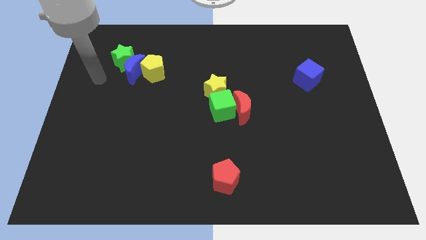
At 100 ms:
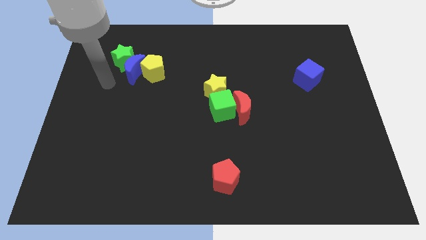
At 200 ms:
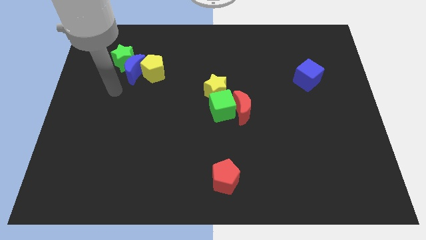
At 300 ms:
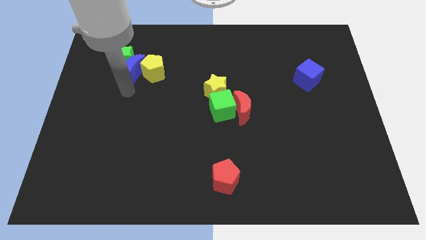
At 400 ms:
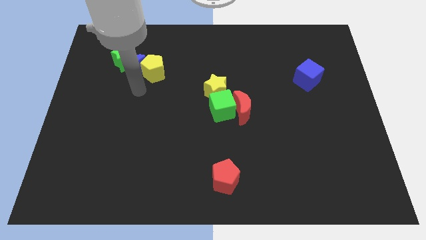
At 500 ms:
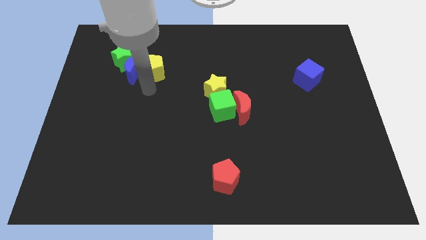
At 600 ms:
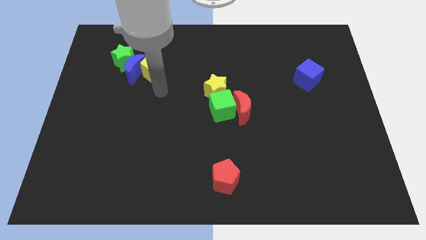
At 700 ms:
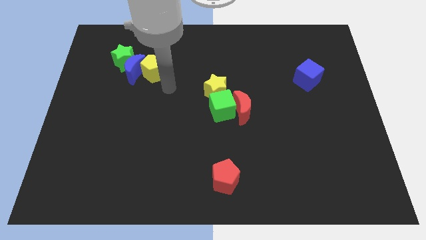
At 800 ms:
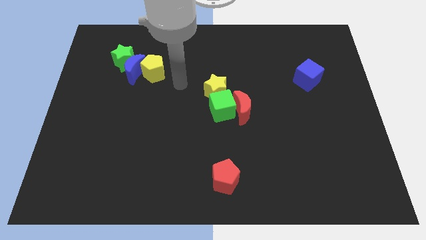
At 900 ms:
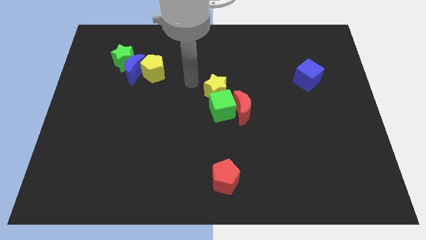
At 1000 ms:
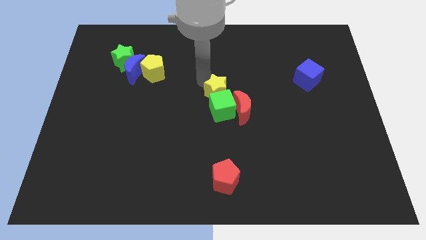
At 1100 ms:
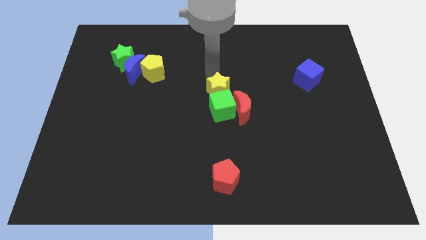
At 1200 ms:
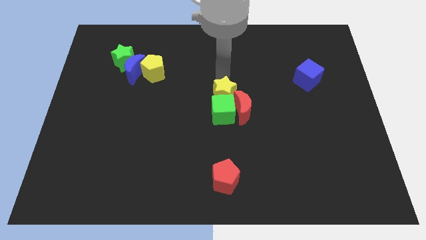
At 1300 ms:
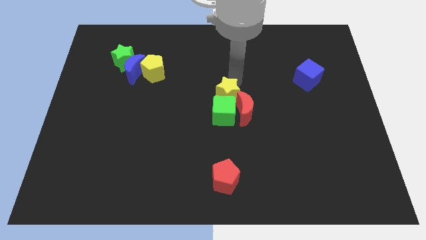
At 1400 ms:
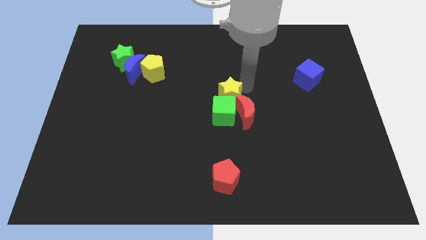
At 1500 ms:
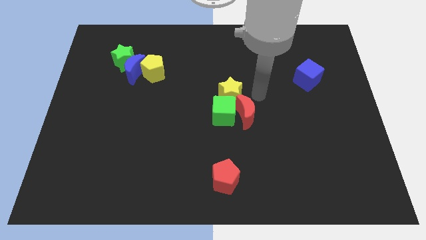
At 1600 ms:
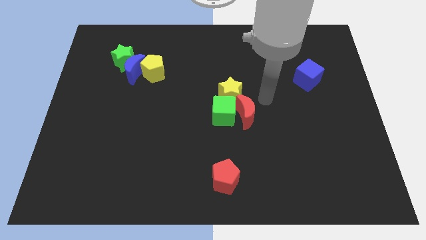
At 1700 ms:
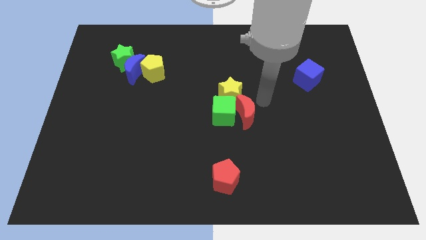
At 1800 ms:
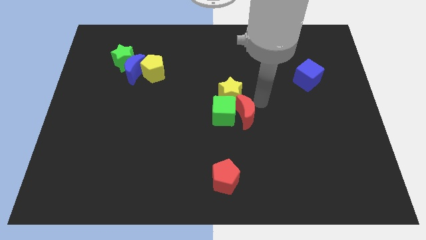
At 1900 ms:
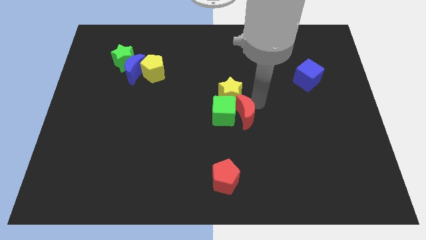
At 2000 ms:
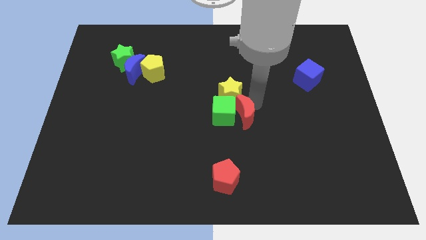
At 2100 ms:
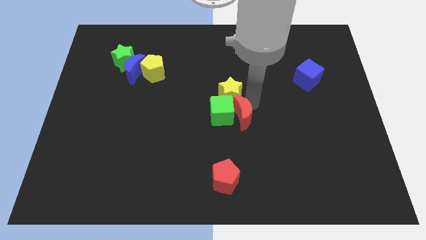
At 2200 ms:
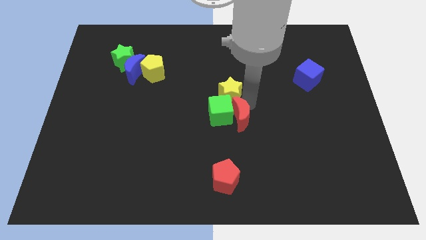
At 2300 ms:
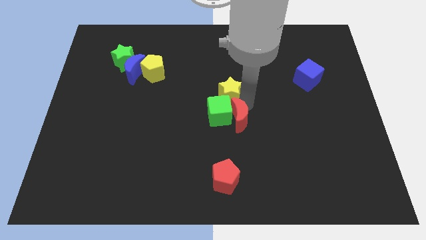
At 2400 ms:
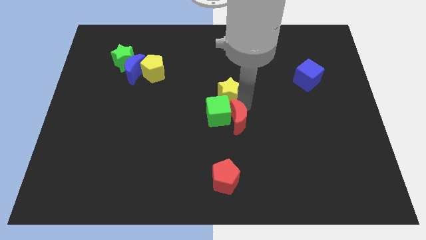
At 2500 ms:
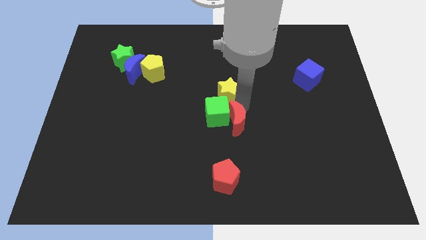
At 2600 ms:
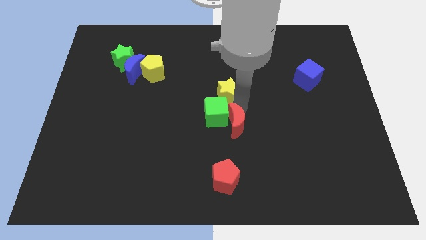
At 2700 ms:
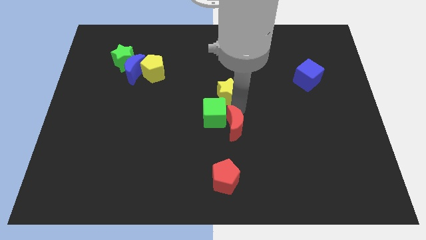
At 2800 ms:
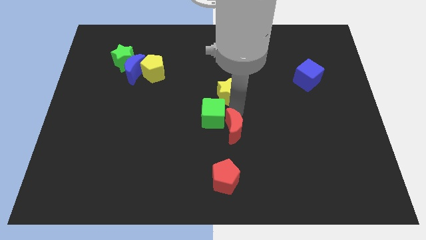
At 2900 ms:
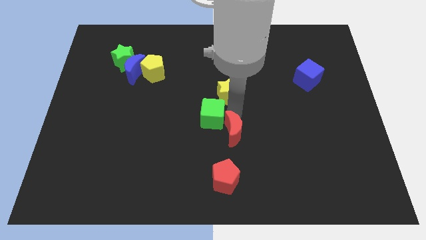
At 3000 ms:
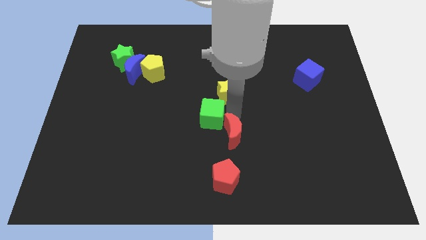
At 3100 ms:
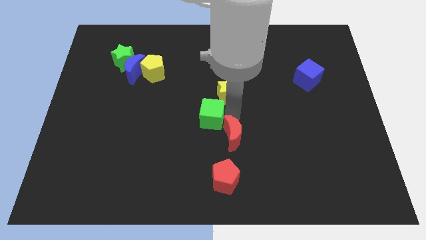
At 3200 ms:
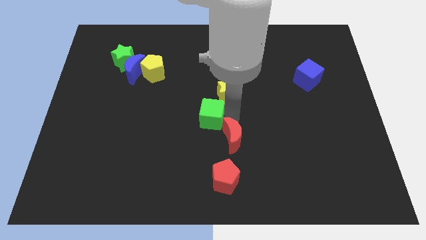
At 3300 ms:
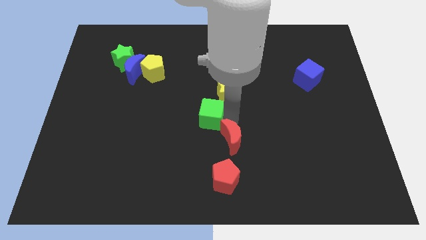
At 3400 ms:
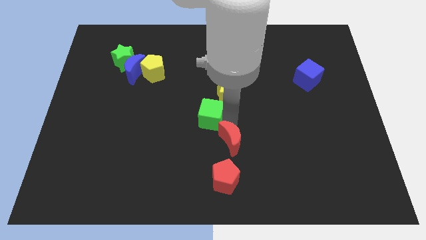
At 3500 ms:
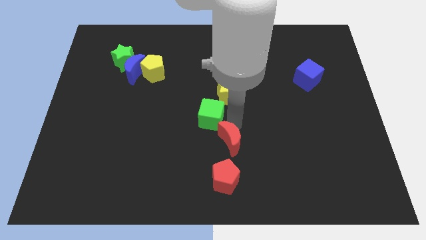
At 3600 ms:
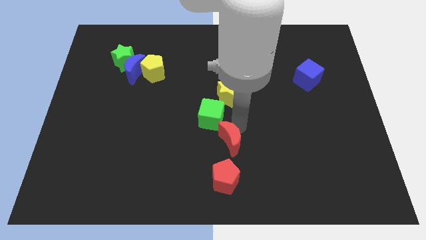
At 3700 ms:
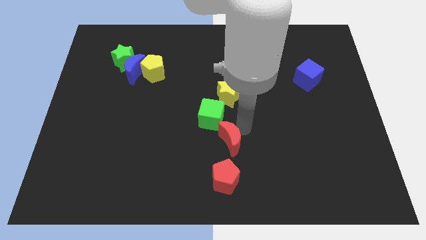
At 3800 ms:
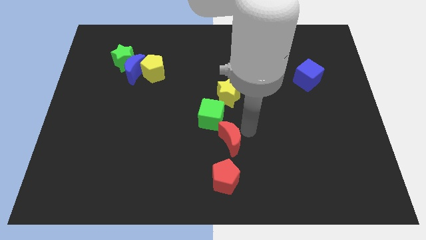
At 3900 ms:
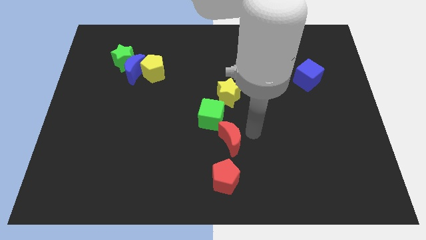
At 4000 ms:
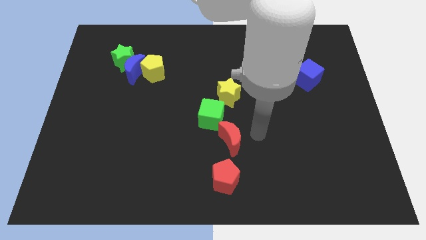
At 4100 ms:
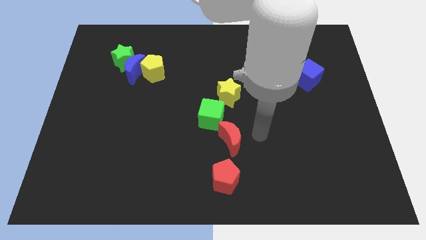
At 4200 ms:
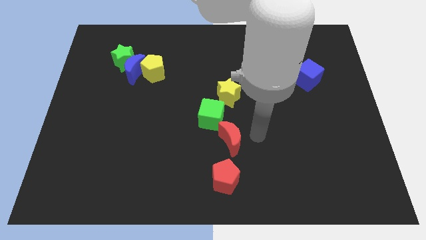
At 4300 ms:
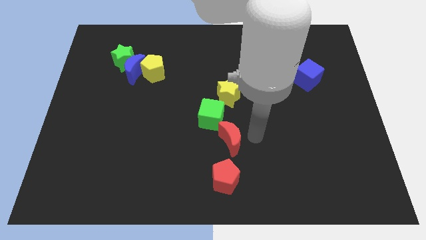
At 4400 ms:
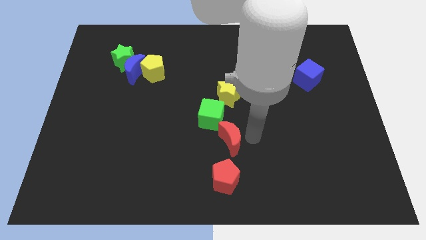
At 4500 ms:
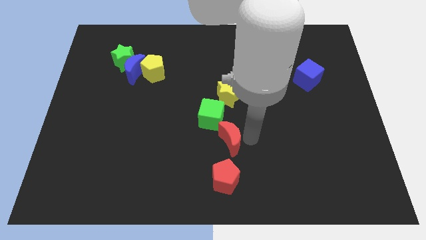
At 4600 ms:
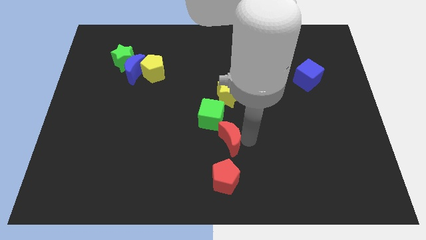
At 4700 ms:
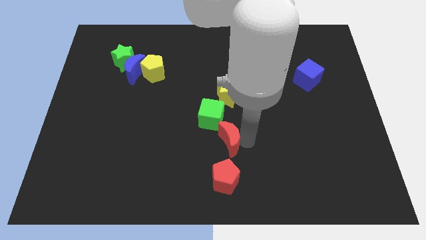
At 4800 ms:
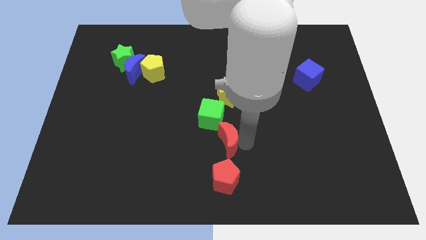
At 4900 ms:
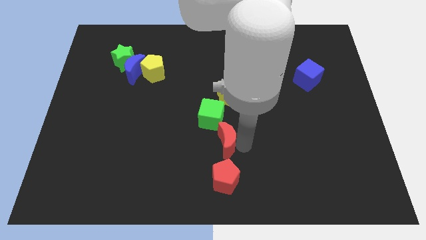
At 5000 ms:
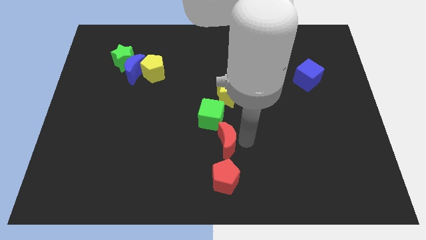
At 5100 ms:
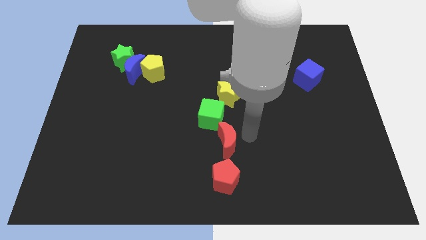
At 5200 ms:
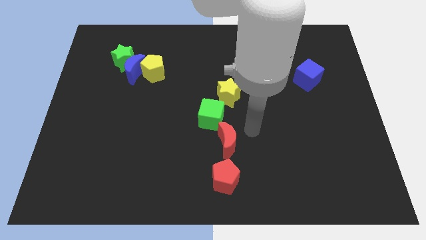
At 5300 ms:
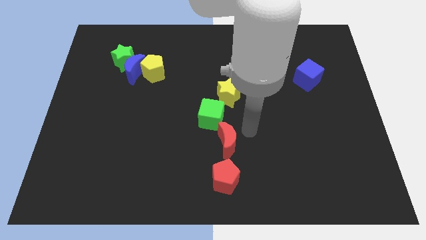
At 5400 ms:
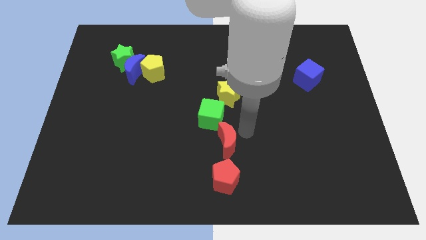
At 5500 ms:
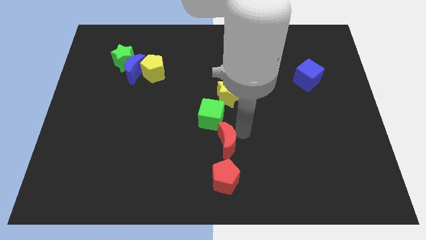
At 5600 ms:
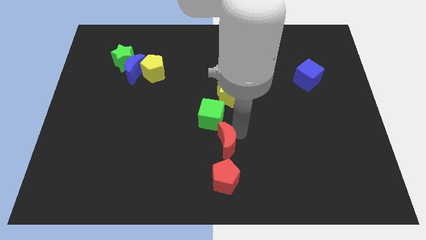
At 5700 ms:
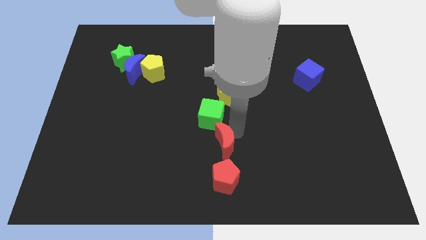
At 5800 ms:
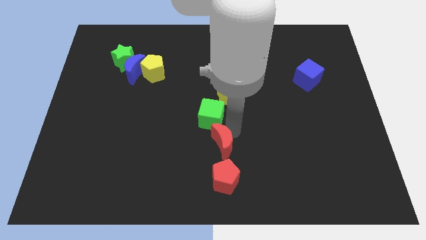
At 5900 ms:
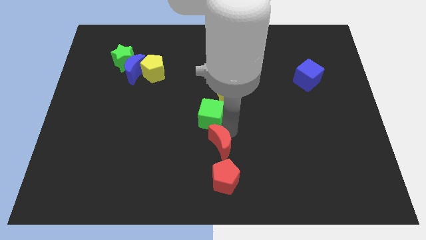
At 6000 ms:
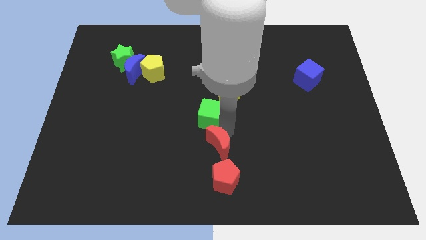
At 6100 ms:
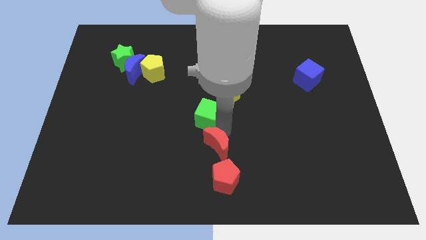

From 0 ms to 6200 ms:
push the red moon diagonally up and to the left of the red pentagon

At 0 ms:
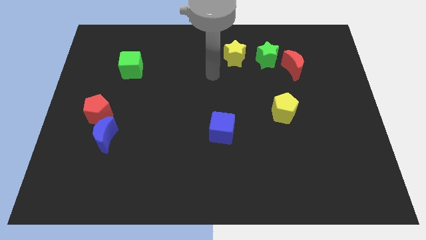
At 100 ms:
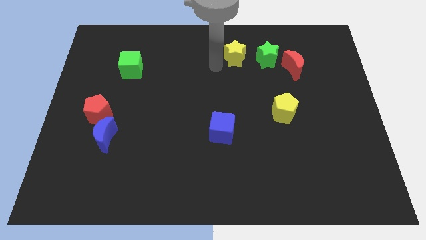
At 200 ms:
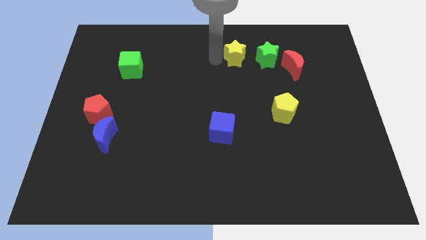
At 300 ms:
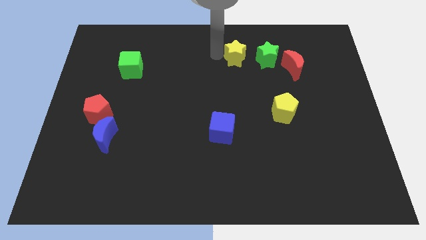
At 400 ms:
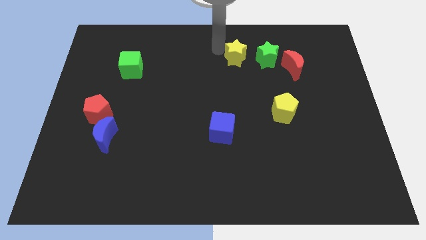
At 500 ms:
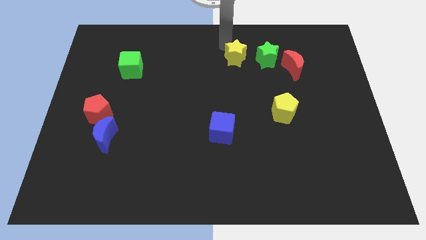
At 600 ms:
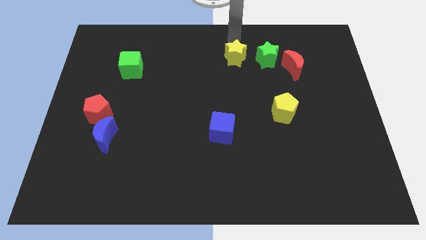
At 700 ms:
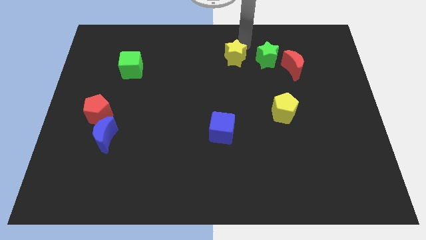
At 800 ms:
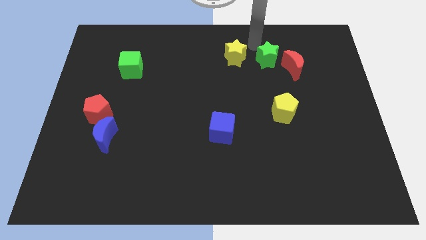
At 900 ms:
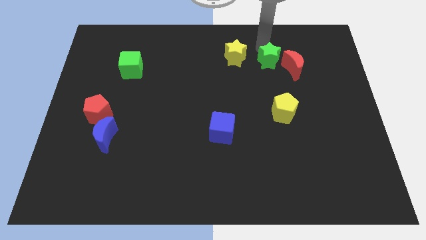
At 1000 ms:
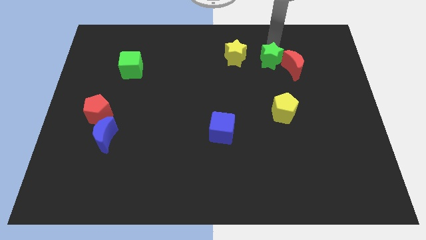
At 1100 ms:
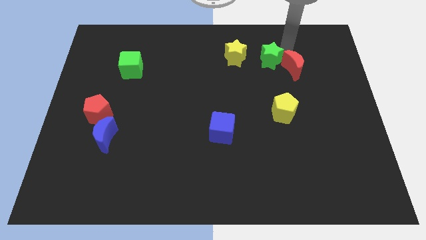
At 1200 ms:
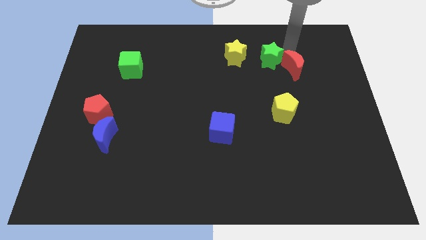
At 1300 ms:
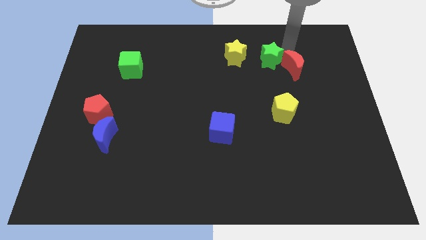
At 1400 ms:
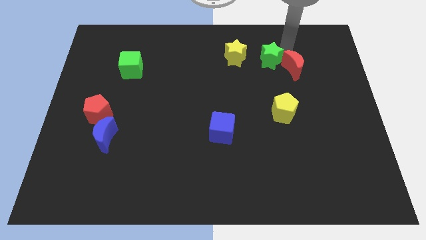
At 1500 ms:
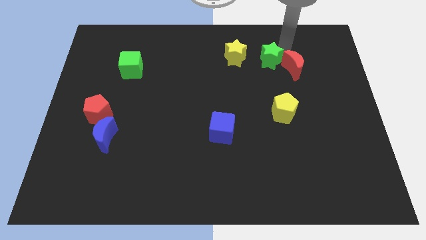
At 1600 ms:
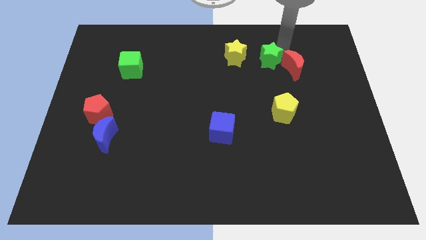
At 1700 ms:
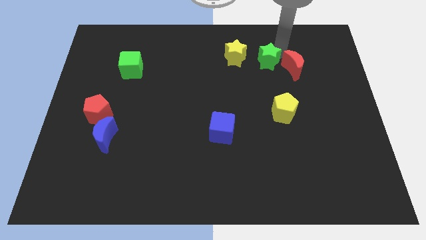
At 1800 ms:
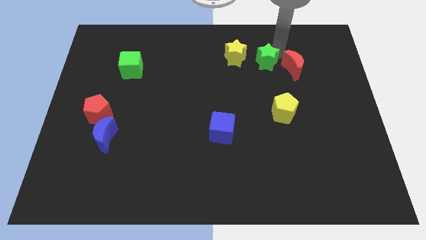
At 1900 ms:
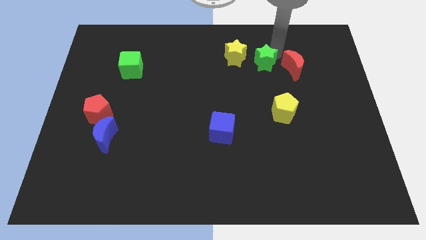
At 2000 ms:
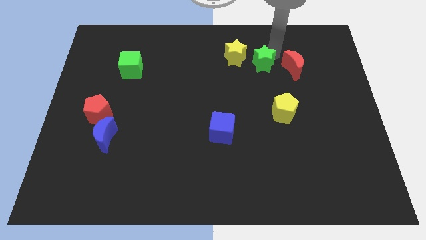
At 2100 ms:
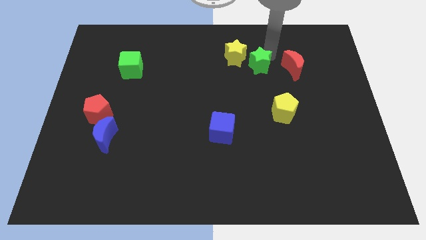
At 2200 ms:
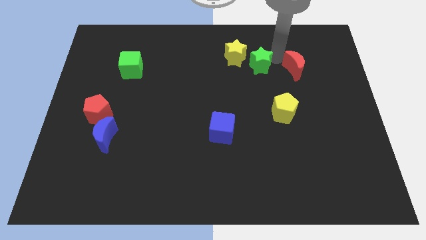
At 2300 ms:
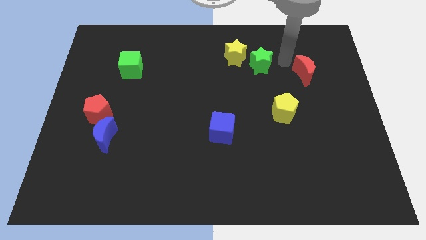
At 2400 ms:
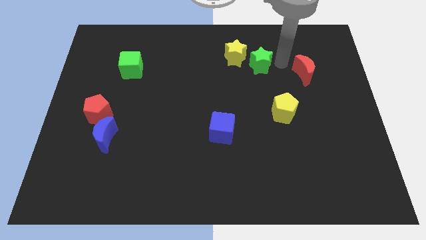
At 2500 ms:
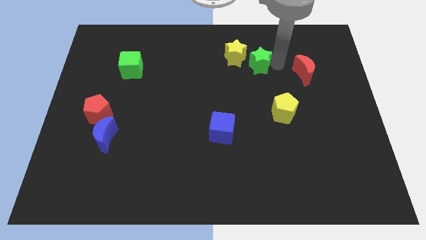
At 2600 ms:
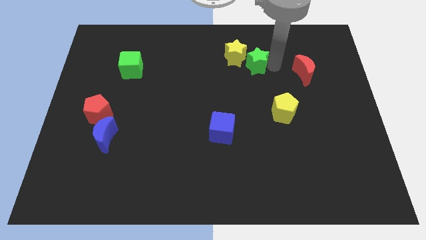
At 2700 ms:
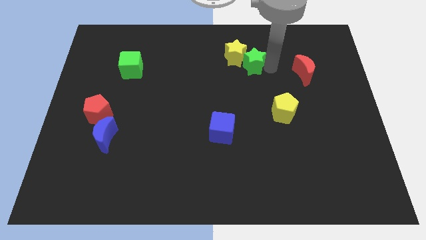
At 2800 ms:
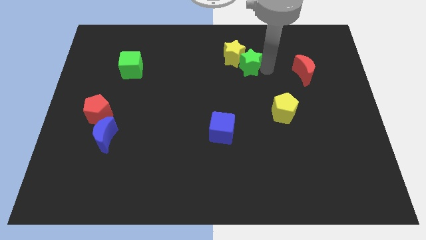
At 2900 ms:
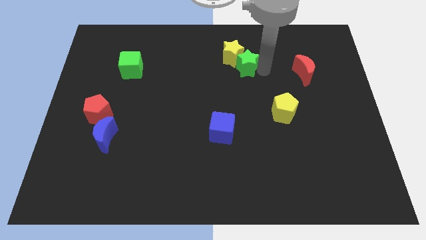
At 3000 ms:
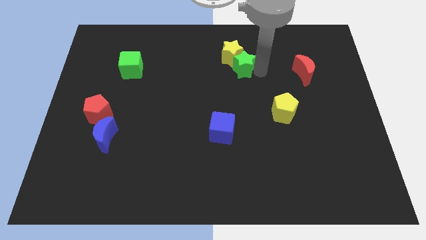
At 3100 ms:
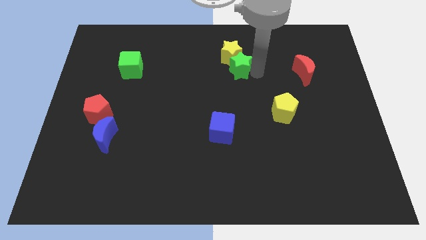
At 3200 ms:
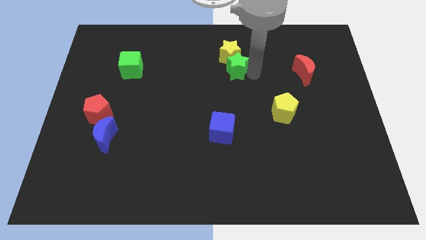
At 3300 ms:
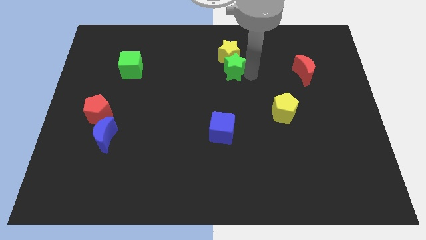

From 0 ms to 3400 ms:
slide the green star to the bottom left of the yellow star
